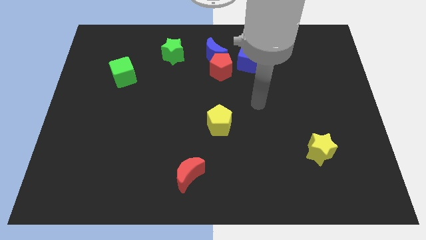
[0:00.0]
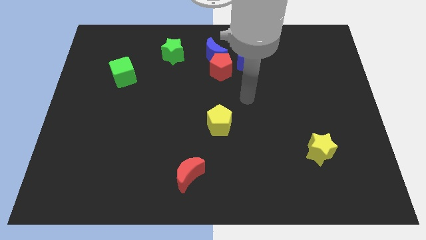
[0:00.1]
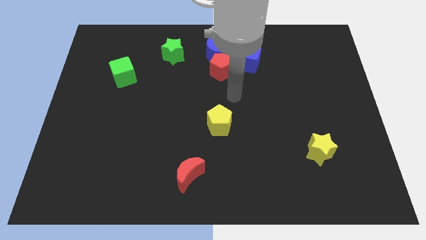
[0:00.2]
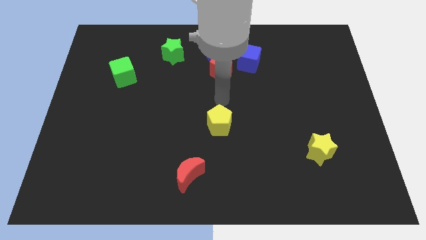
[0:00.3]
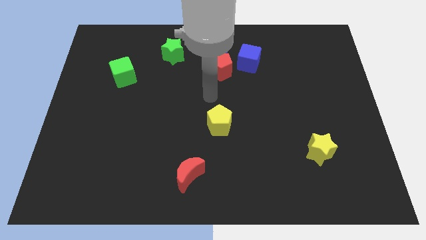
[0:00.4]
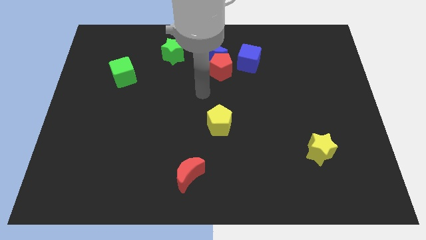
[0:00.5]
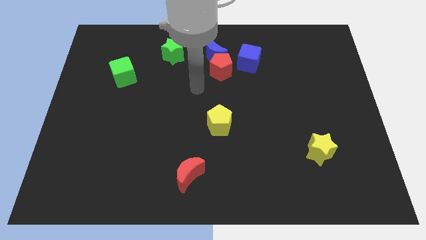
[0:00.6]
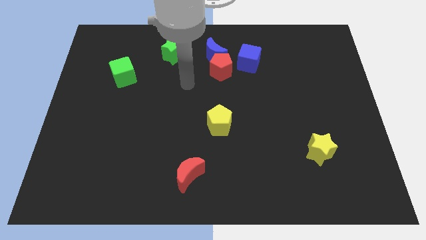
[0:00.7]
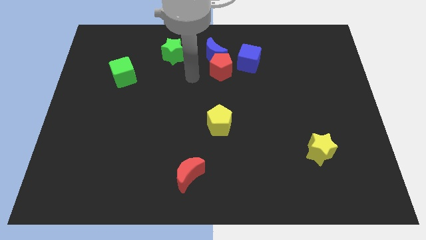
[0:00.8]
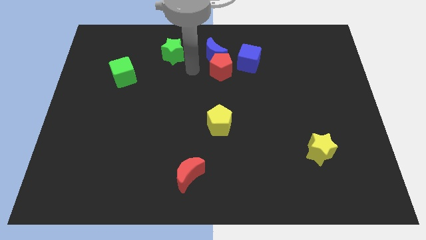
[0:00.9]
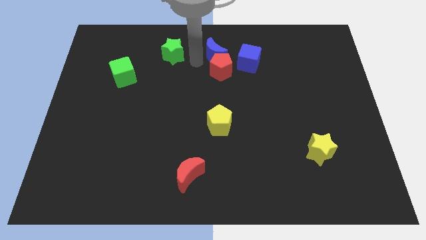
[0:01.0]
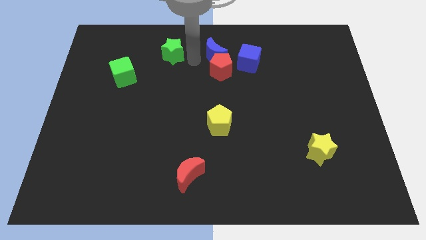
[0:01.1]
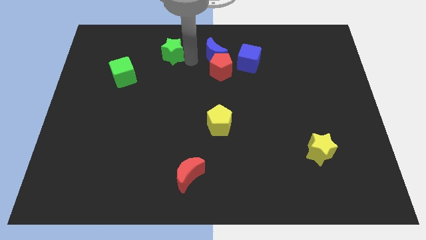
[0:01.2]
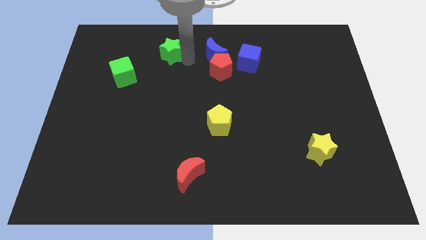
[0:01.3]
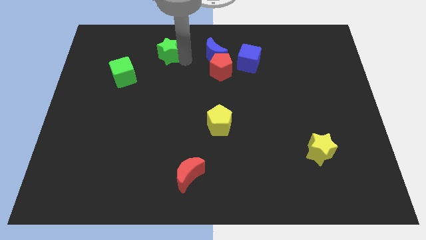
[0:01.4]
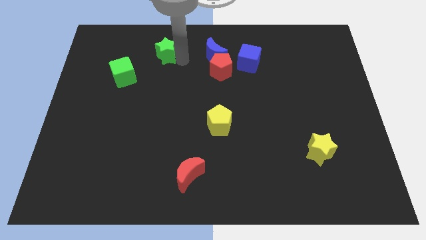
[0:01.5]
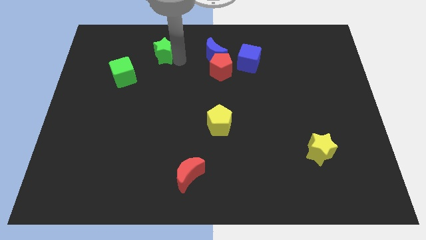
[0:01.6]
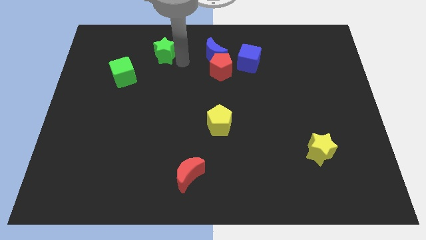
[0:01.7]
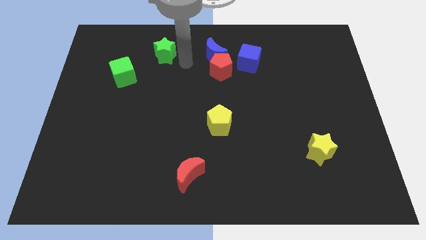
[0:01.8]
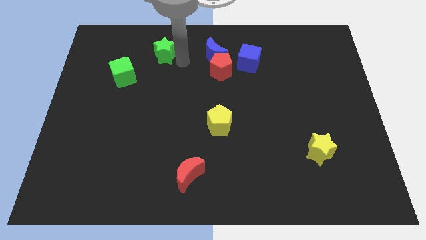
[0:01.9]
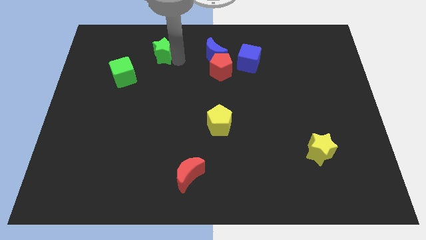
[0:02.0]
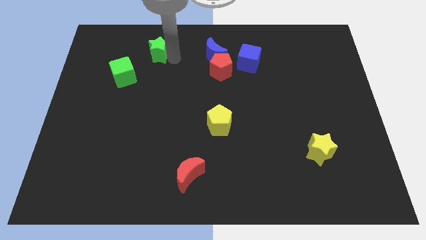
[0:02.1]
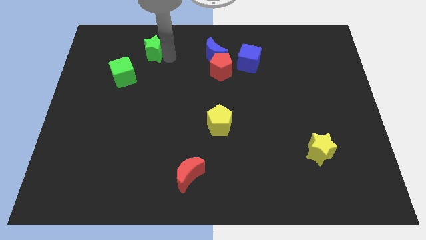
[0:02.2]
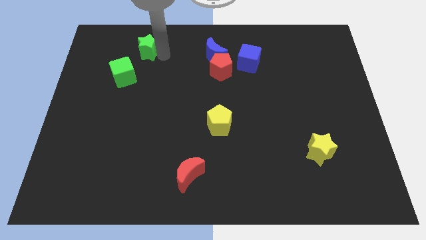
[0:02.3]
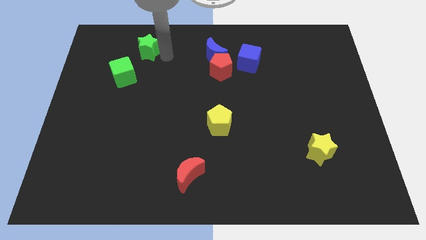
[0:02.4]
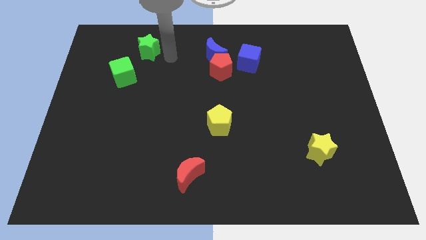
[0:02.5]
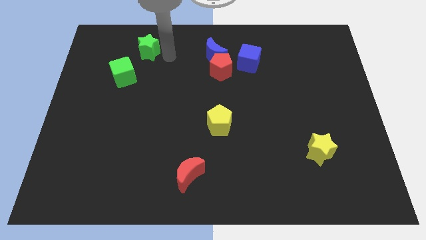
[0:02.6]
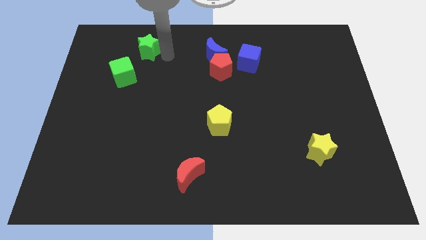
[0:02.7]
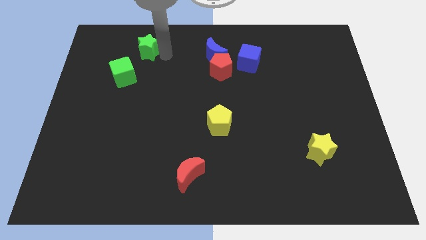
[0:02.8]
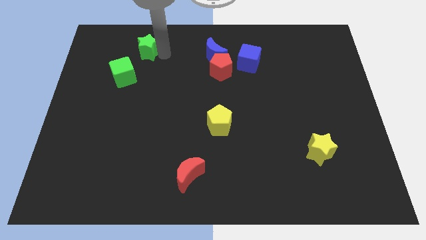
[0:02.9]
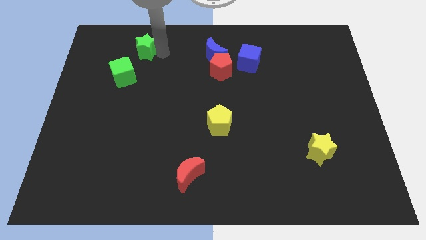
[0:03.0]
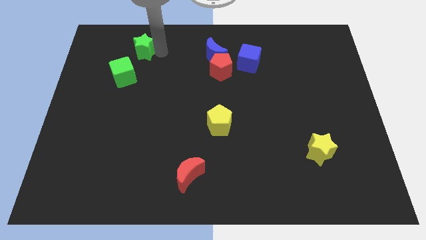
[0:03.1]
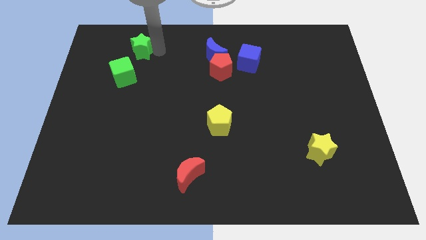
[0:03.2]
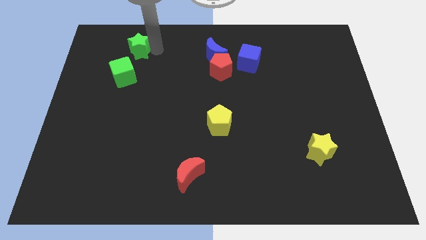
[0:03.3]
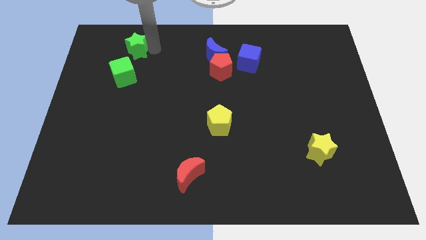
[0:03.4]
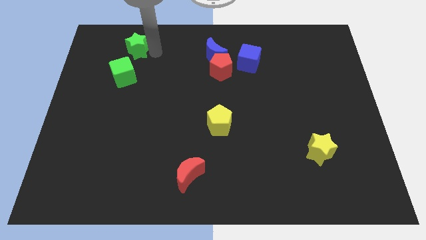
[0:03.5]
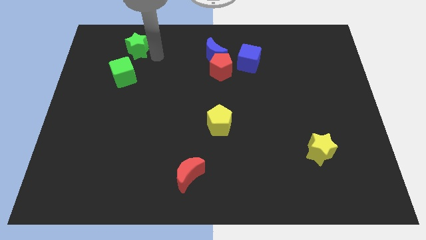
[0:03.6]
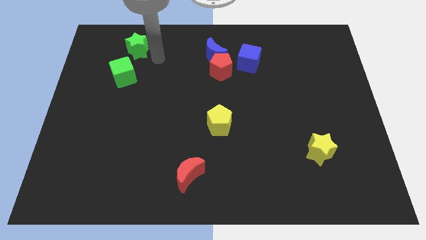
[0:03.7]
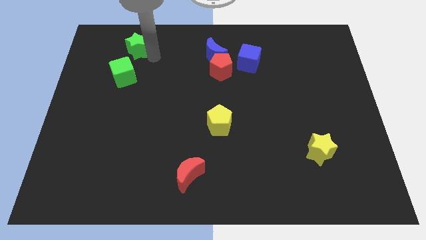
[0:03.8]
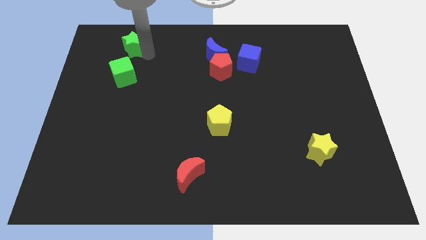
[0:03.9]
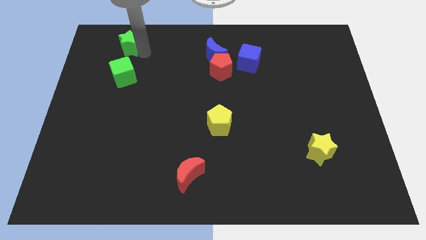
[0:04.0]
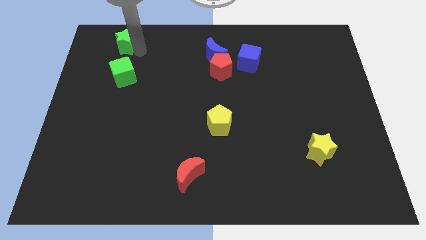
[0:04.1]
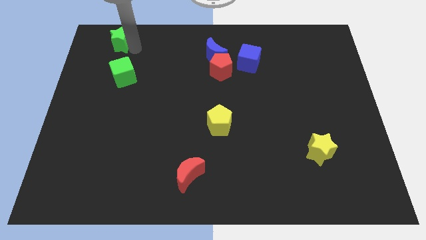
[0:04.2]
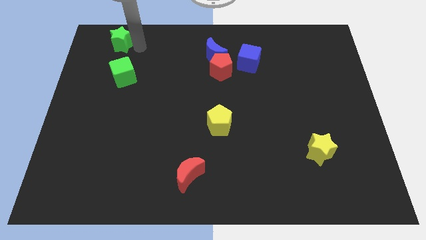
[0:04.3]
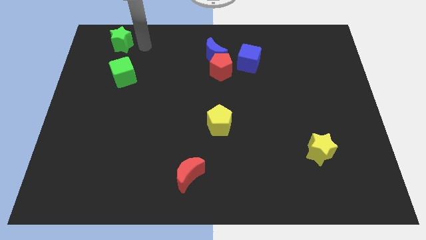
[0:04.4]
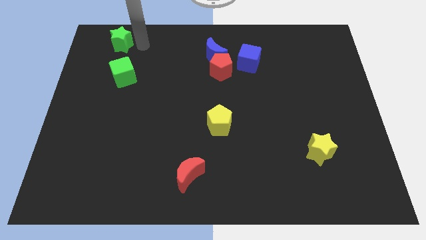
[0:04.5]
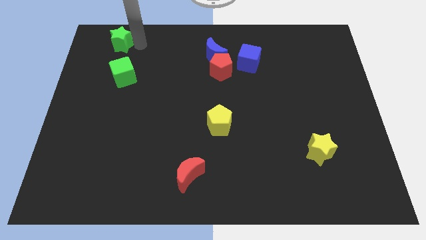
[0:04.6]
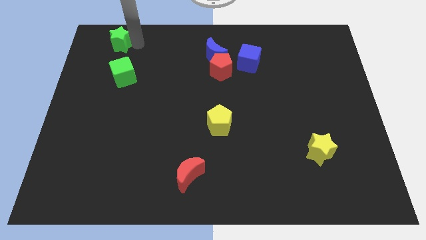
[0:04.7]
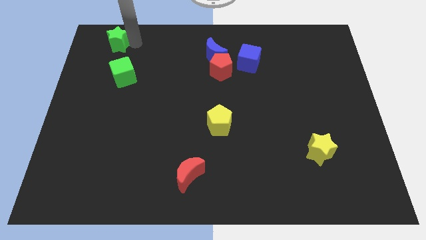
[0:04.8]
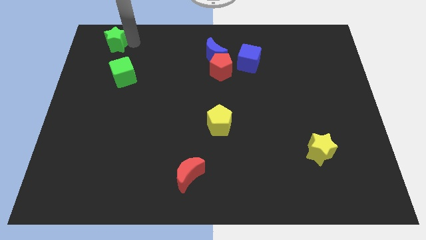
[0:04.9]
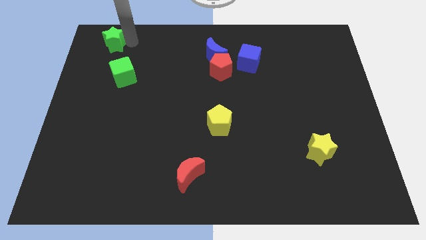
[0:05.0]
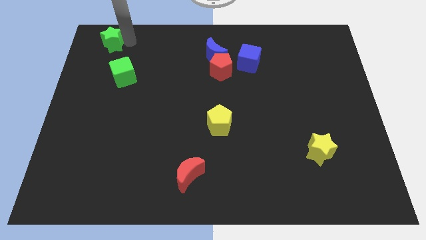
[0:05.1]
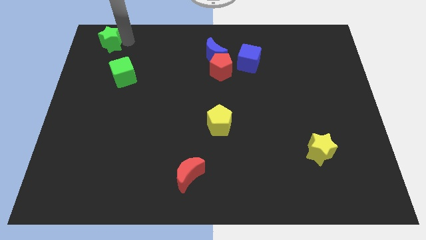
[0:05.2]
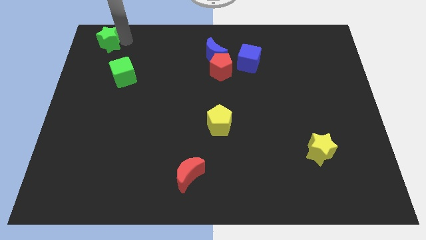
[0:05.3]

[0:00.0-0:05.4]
push the green star to the top left

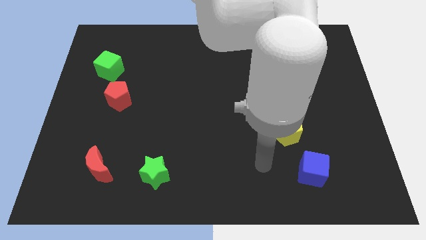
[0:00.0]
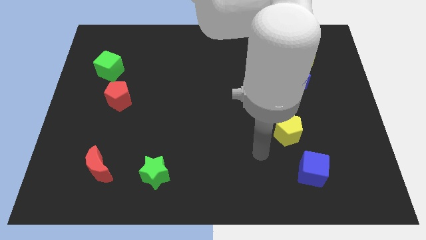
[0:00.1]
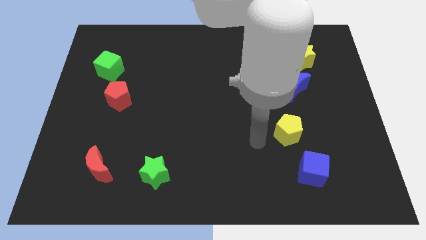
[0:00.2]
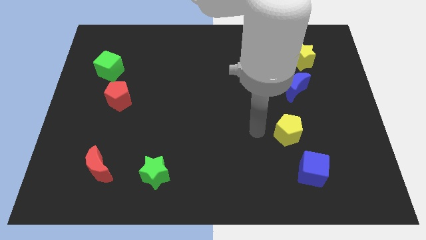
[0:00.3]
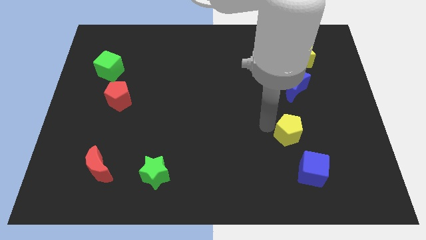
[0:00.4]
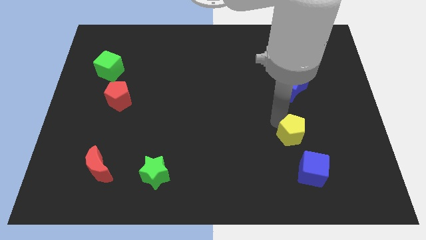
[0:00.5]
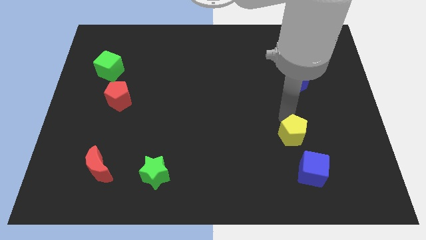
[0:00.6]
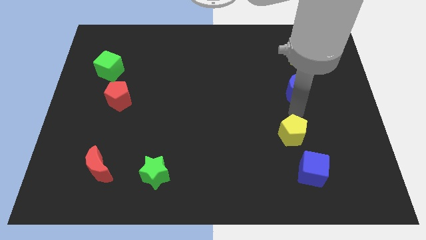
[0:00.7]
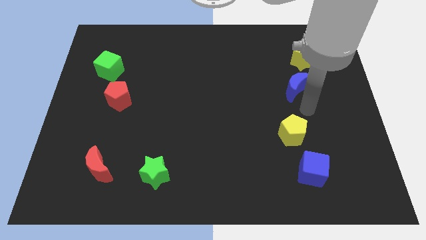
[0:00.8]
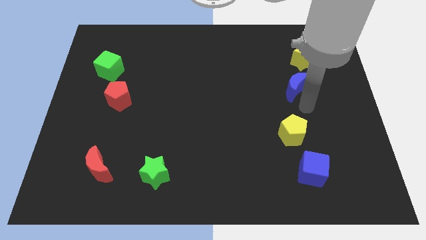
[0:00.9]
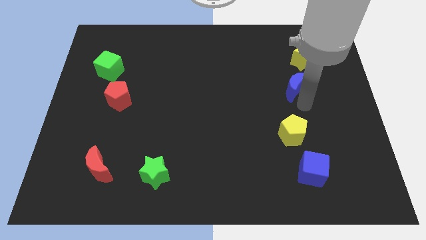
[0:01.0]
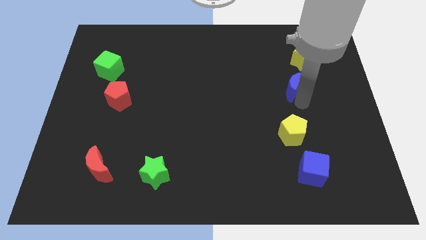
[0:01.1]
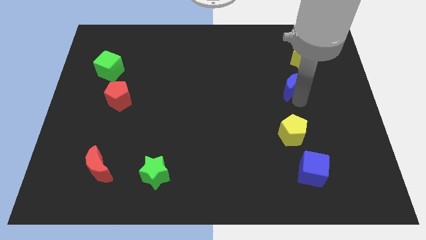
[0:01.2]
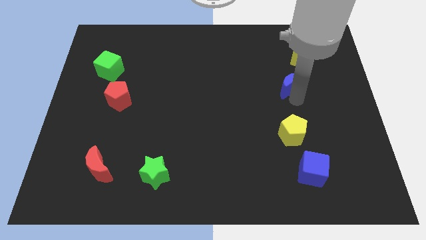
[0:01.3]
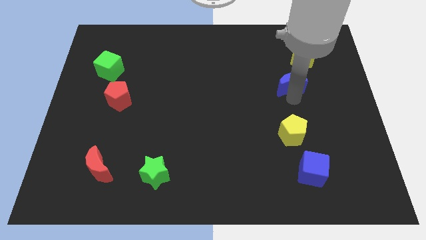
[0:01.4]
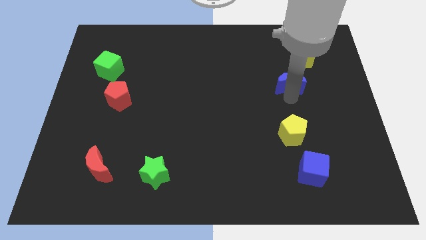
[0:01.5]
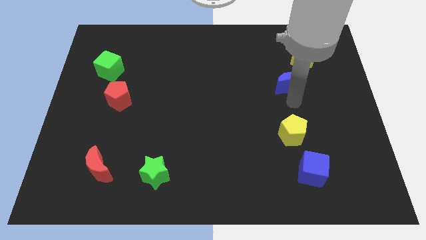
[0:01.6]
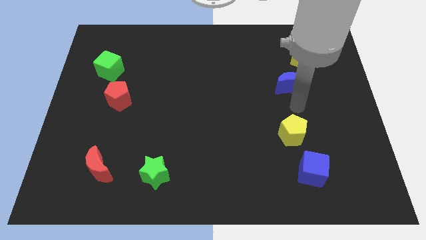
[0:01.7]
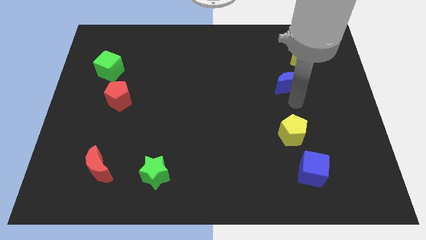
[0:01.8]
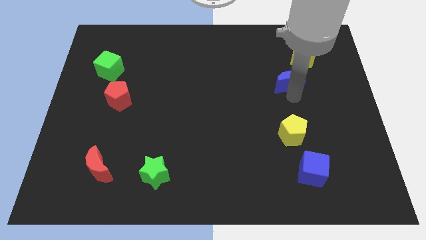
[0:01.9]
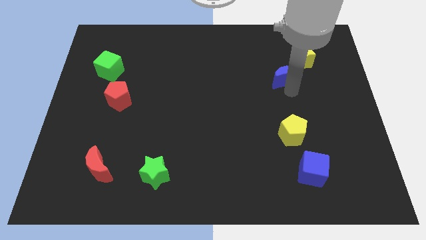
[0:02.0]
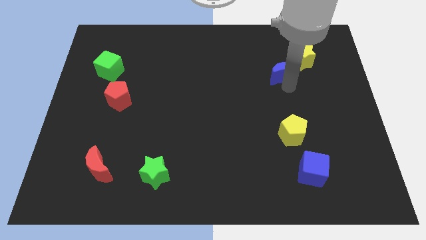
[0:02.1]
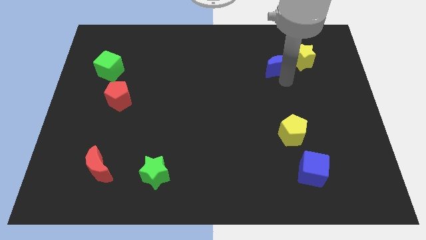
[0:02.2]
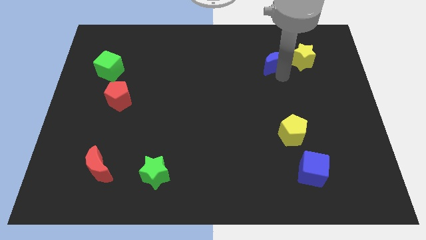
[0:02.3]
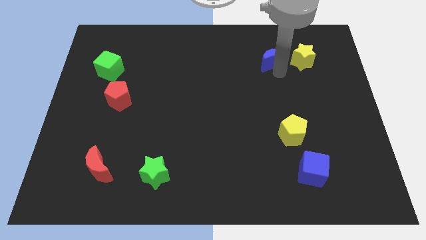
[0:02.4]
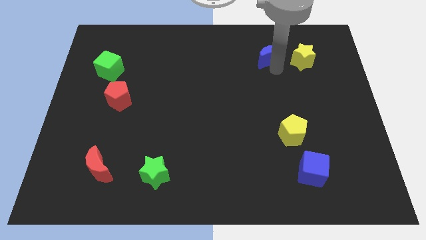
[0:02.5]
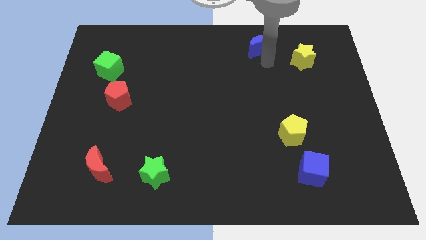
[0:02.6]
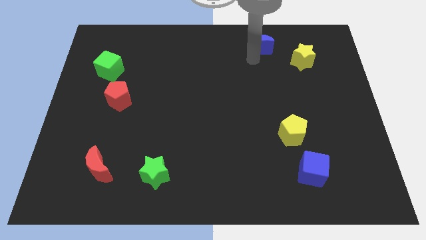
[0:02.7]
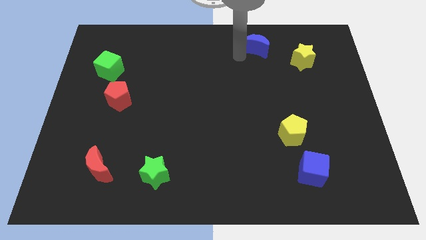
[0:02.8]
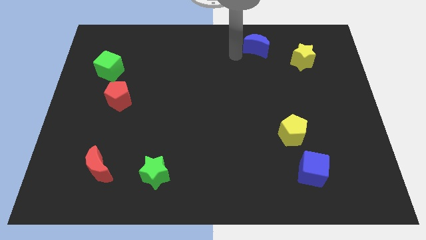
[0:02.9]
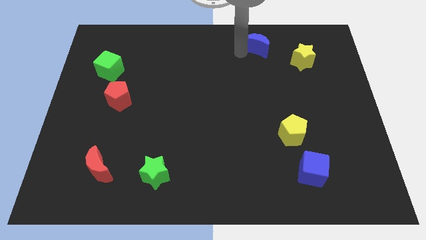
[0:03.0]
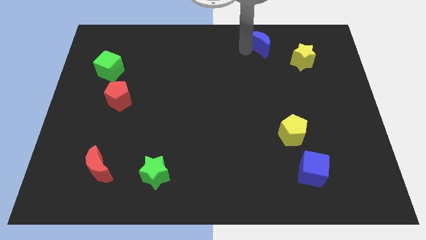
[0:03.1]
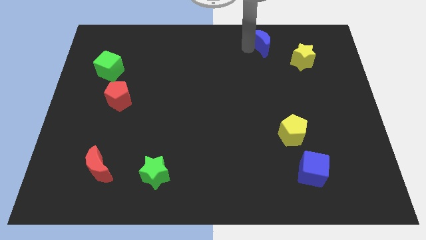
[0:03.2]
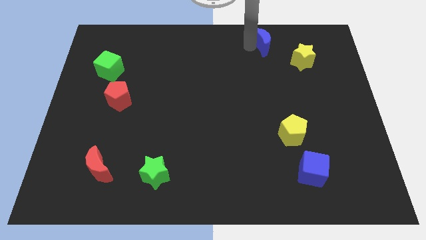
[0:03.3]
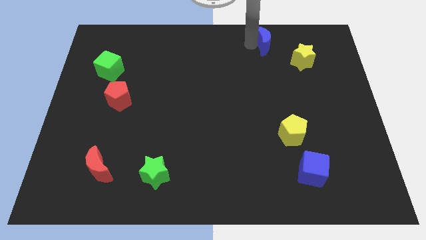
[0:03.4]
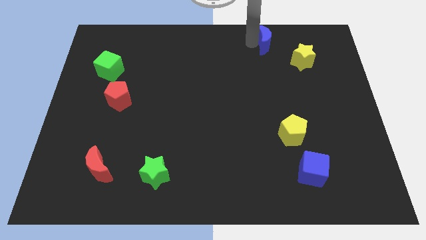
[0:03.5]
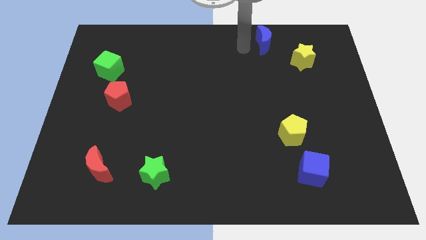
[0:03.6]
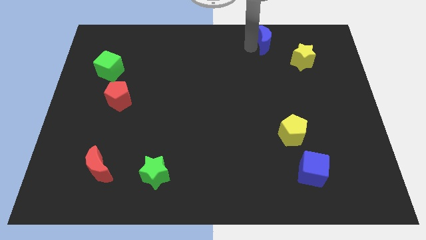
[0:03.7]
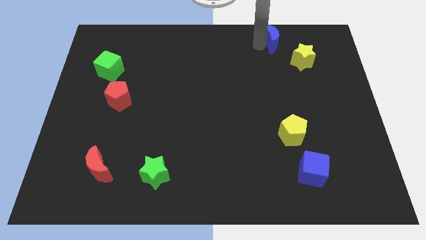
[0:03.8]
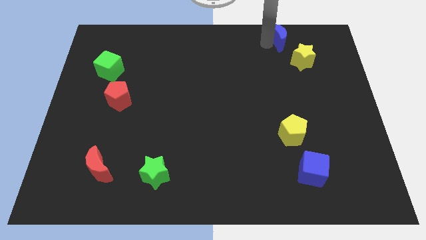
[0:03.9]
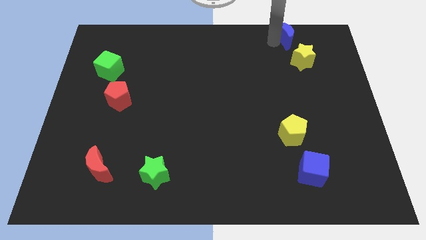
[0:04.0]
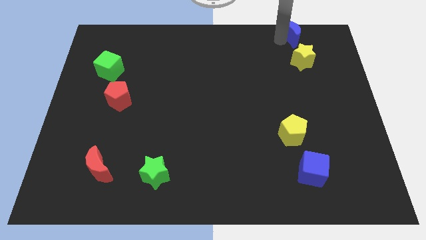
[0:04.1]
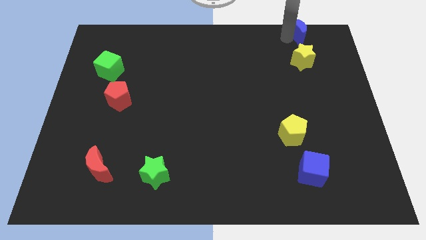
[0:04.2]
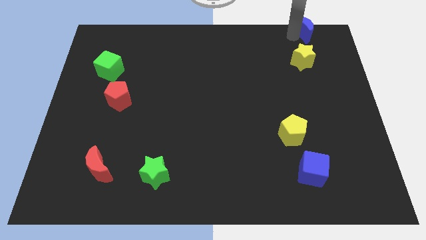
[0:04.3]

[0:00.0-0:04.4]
push the blue moon to the upper right corner
